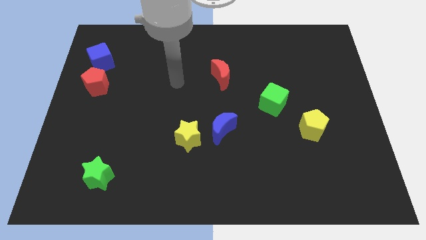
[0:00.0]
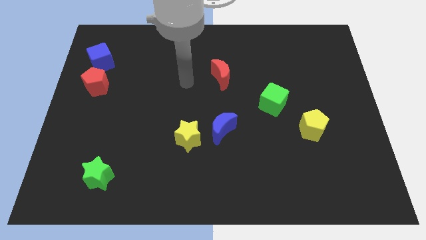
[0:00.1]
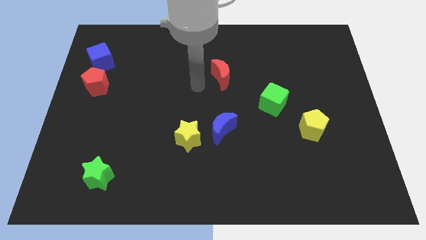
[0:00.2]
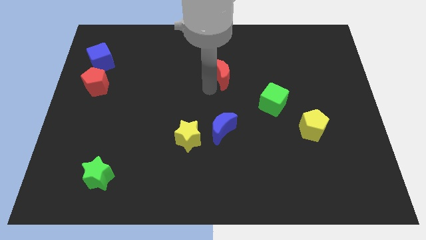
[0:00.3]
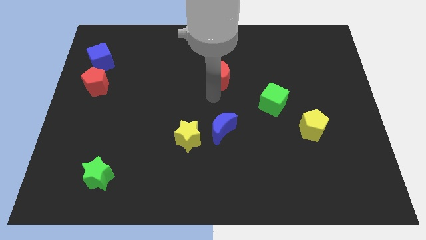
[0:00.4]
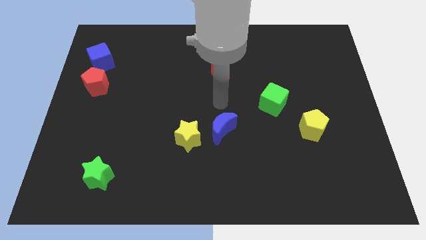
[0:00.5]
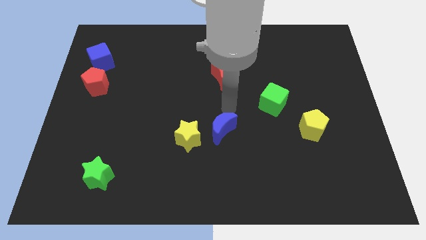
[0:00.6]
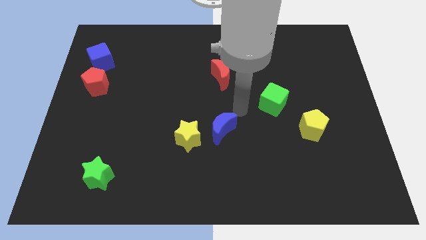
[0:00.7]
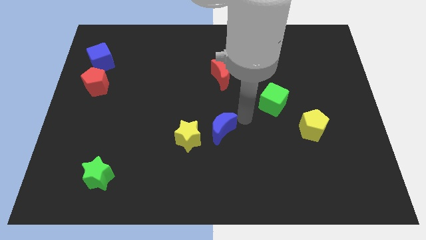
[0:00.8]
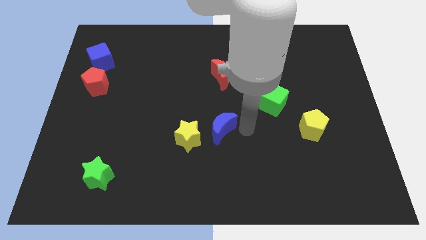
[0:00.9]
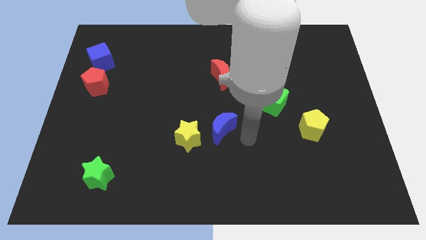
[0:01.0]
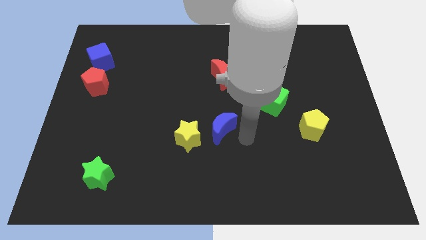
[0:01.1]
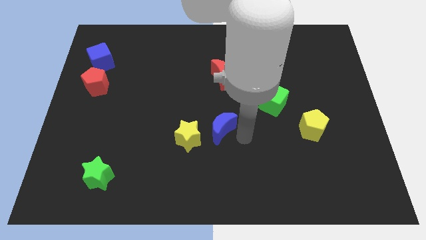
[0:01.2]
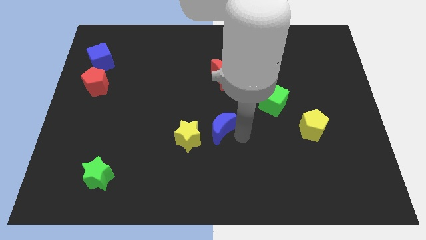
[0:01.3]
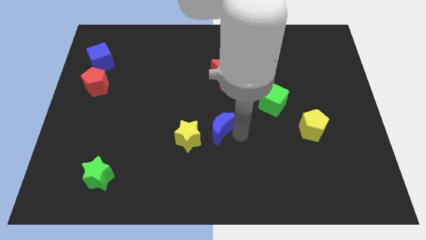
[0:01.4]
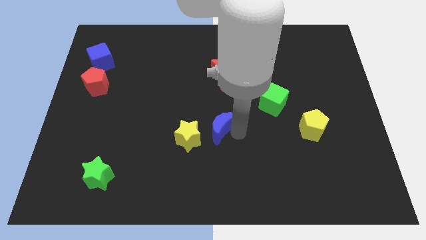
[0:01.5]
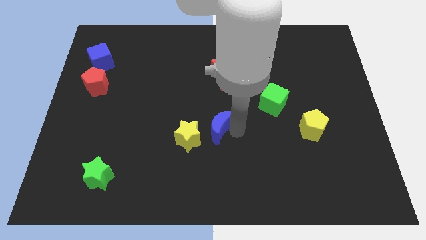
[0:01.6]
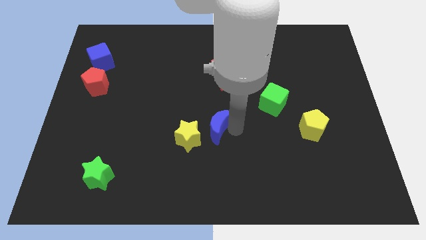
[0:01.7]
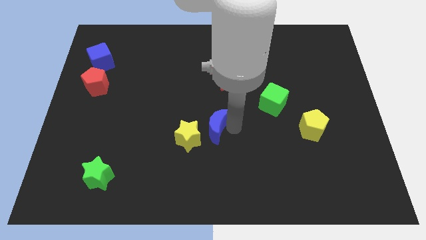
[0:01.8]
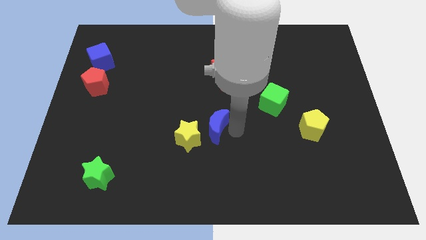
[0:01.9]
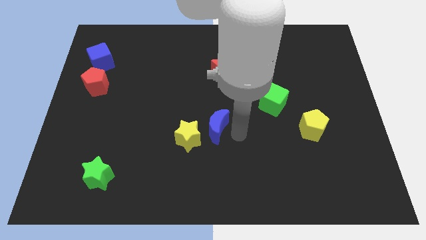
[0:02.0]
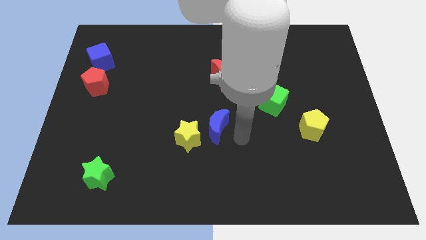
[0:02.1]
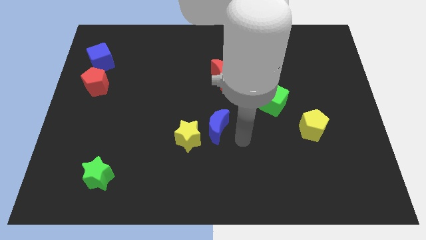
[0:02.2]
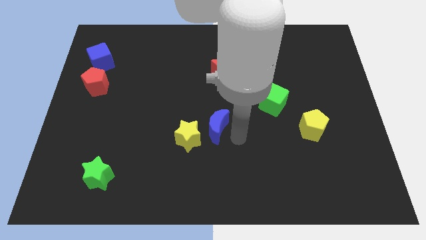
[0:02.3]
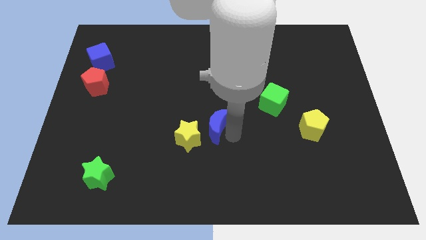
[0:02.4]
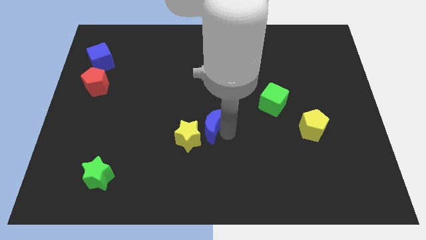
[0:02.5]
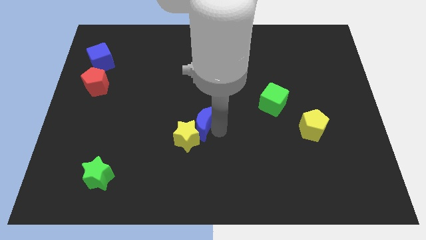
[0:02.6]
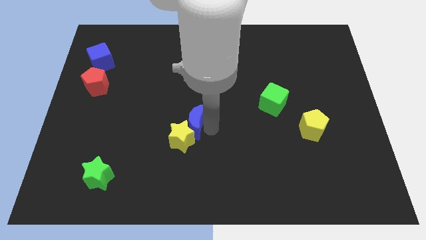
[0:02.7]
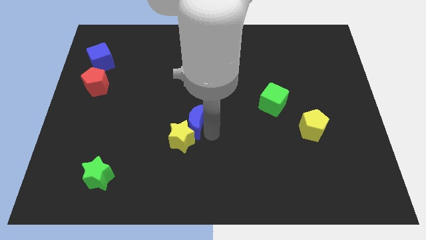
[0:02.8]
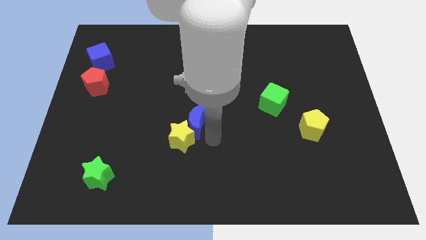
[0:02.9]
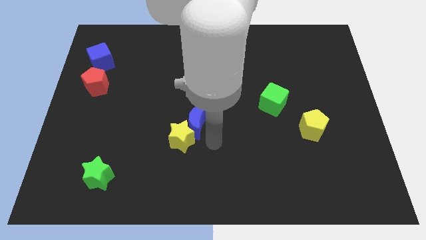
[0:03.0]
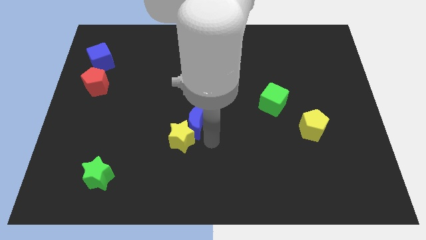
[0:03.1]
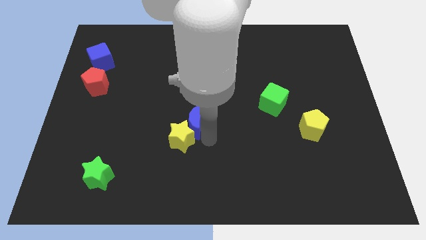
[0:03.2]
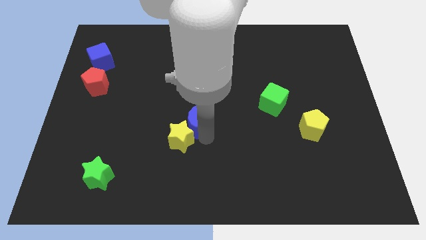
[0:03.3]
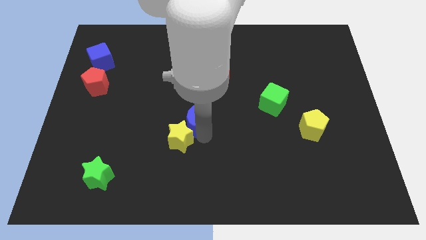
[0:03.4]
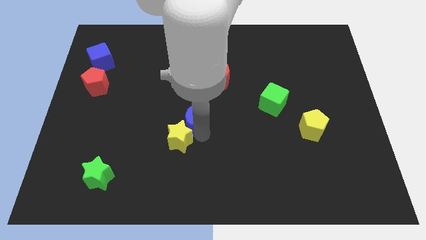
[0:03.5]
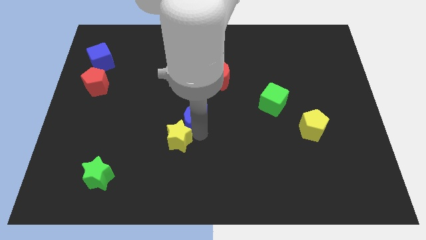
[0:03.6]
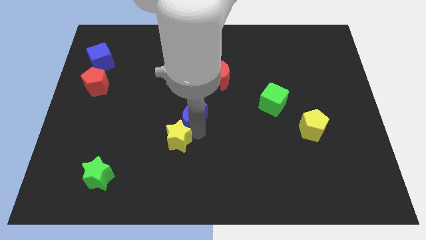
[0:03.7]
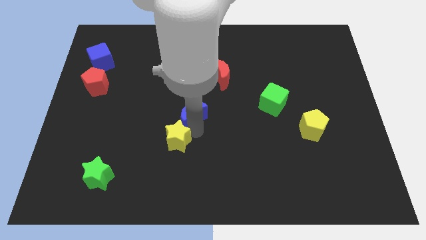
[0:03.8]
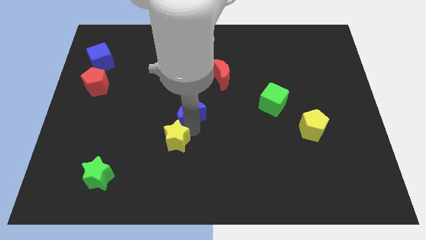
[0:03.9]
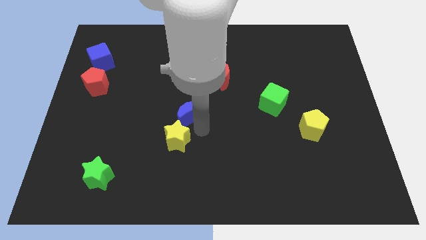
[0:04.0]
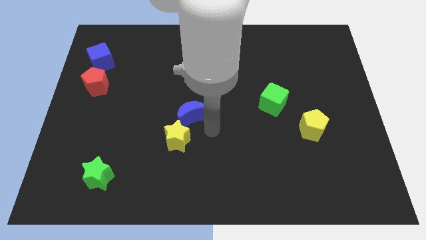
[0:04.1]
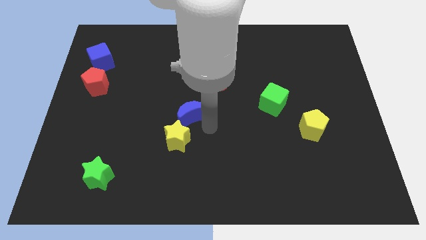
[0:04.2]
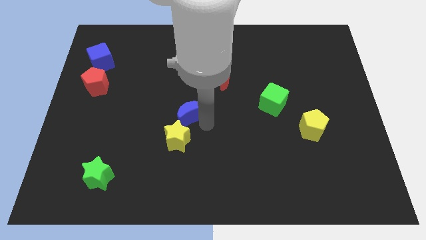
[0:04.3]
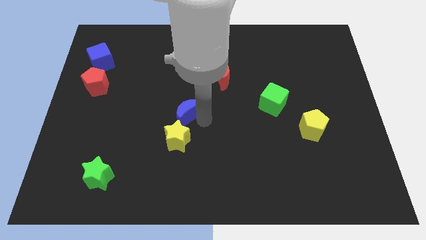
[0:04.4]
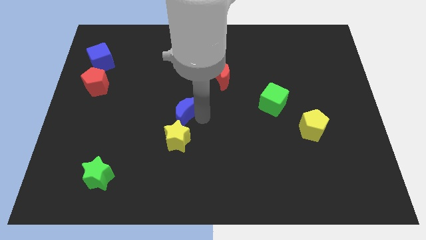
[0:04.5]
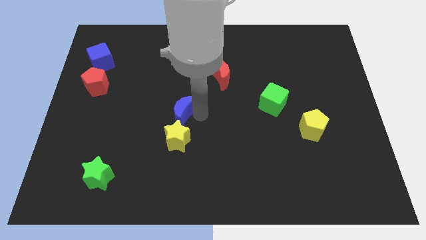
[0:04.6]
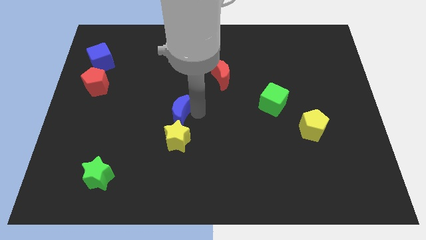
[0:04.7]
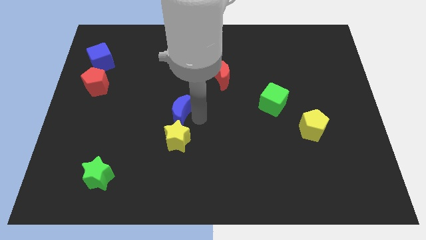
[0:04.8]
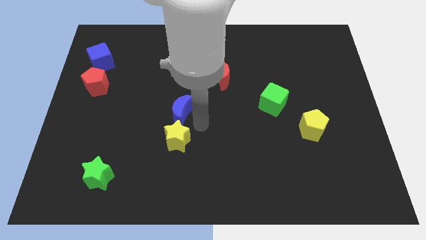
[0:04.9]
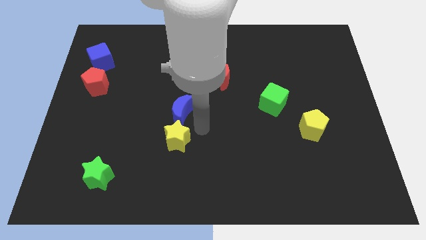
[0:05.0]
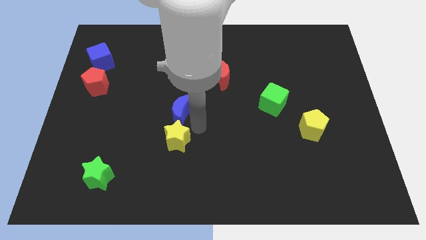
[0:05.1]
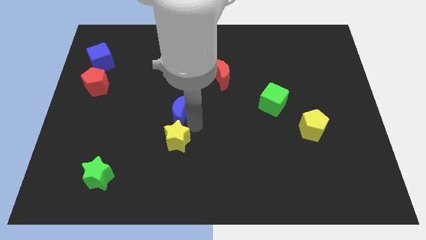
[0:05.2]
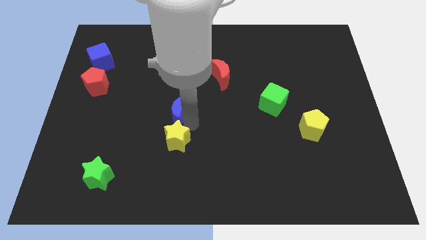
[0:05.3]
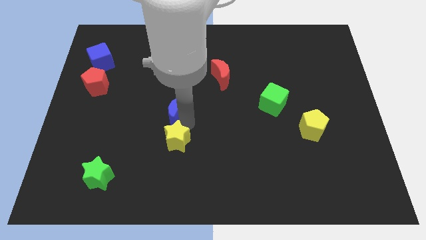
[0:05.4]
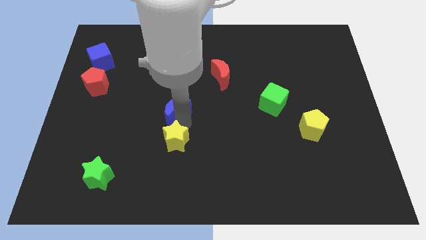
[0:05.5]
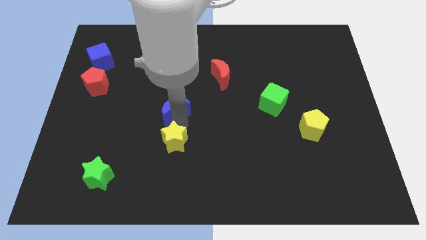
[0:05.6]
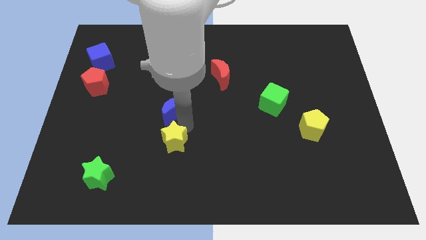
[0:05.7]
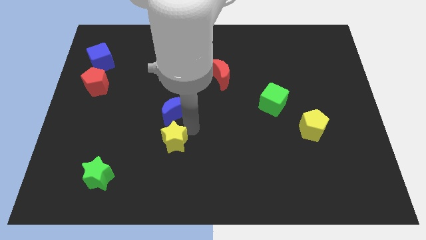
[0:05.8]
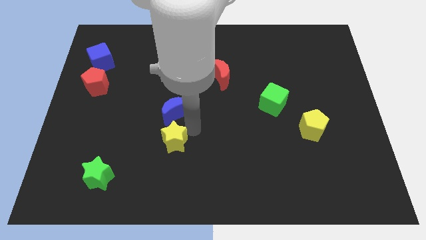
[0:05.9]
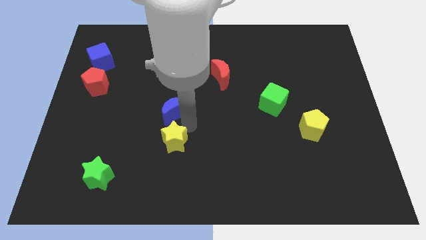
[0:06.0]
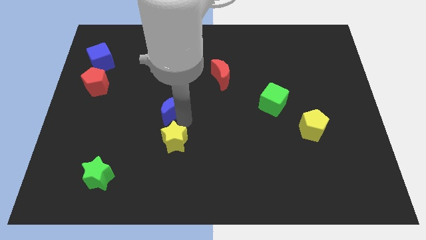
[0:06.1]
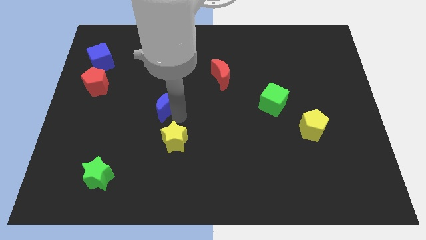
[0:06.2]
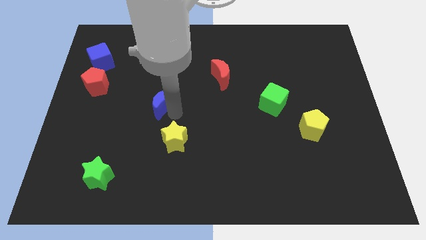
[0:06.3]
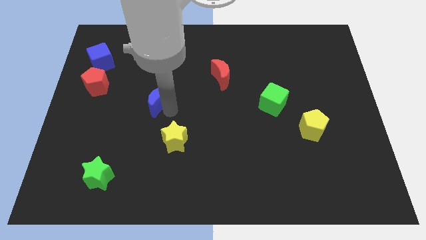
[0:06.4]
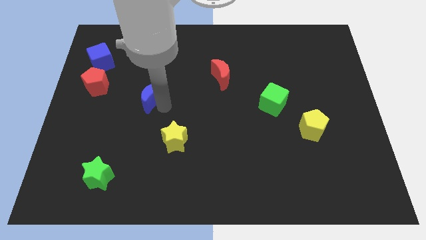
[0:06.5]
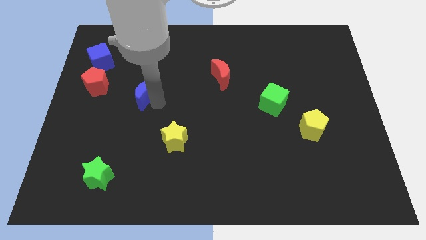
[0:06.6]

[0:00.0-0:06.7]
push the blue moon to the right of the red pentagon

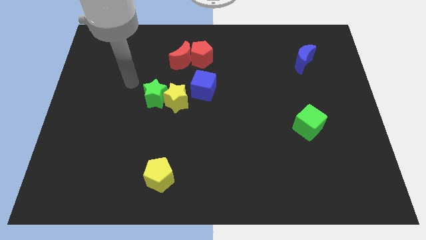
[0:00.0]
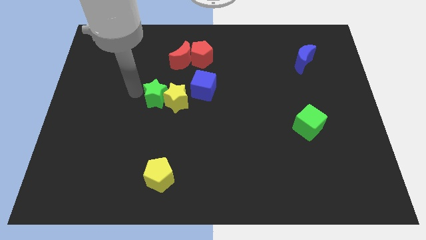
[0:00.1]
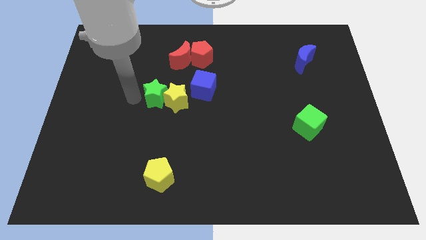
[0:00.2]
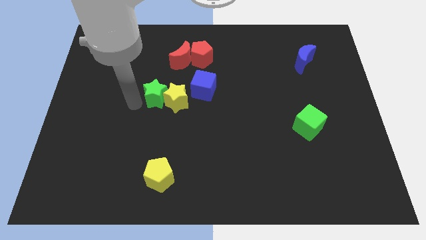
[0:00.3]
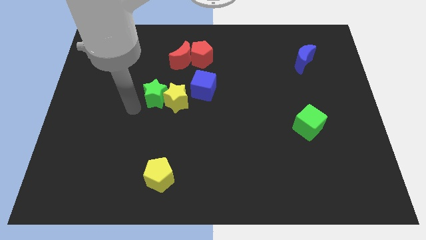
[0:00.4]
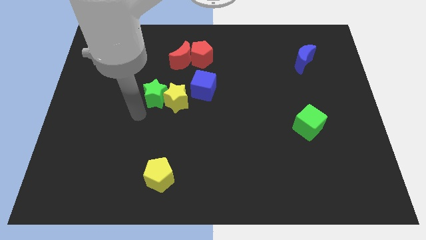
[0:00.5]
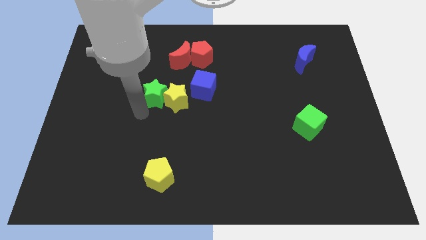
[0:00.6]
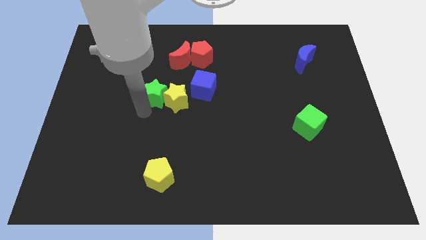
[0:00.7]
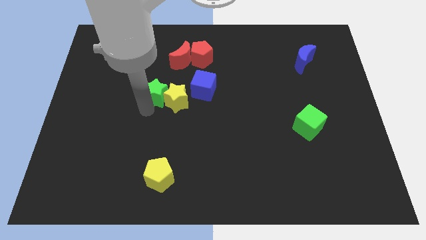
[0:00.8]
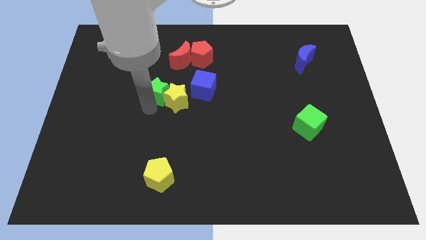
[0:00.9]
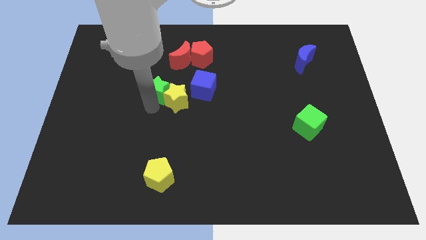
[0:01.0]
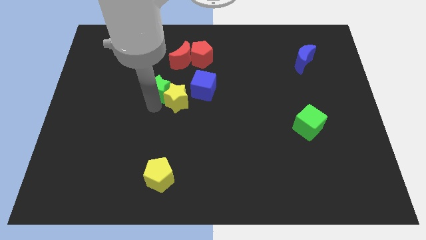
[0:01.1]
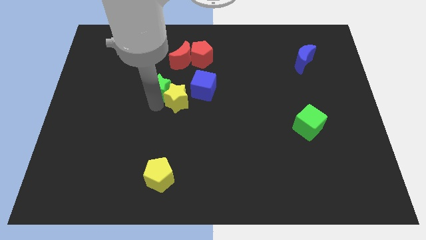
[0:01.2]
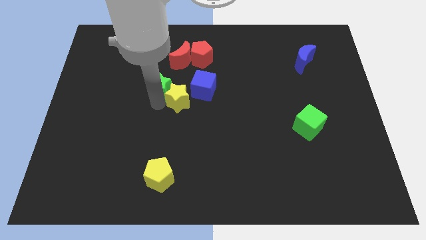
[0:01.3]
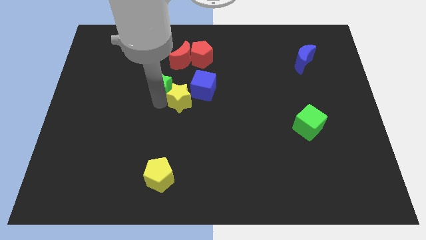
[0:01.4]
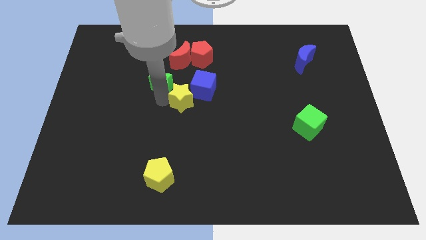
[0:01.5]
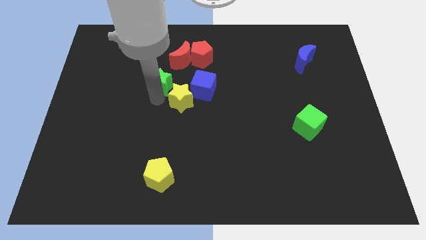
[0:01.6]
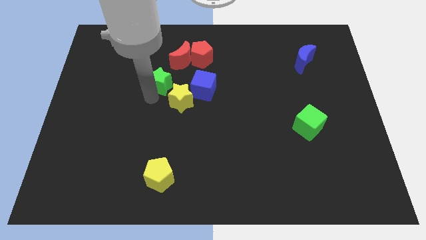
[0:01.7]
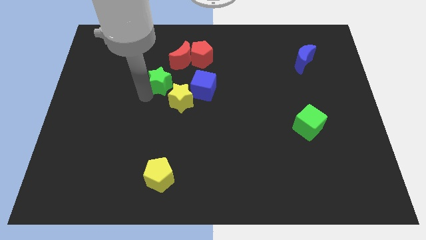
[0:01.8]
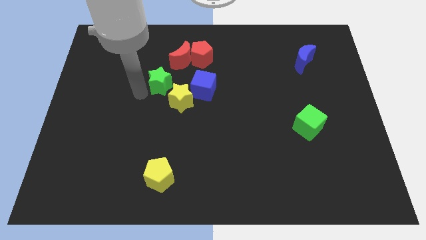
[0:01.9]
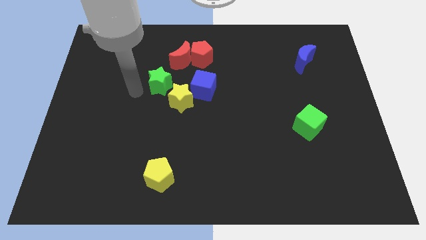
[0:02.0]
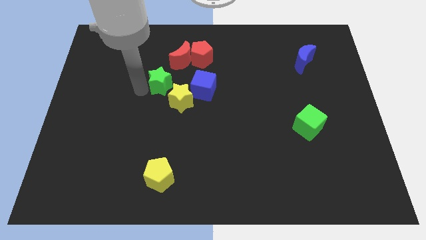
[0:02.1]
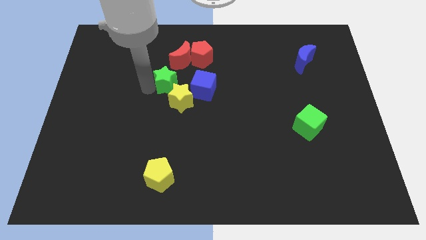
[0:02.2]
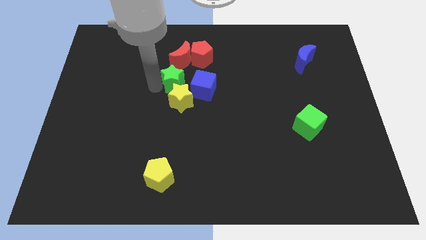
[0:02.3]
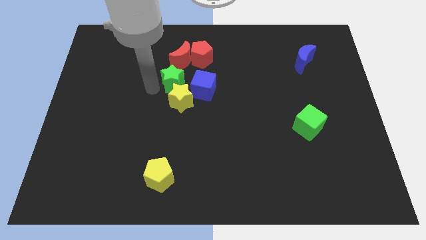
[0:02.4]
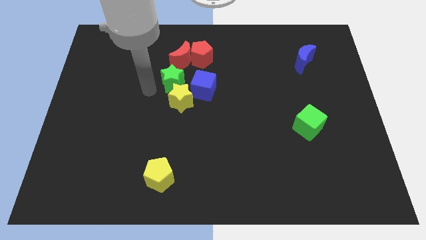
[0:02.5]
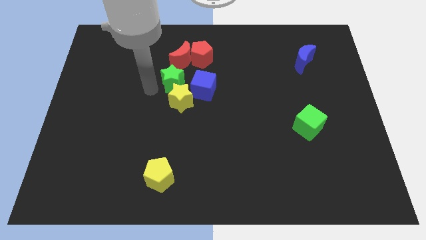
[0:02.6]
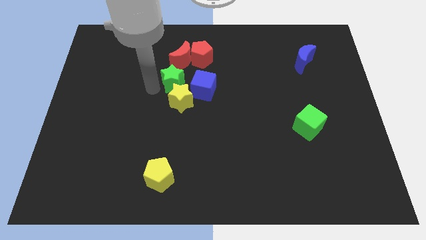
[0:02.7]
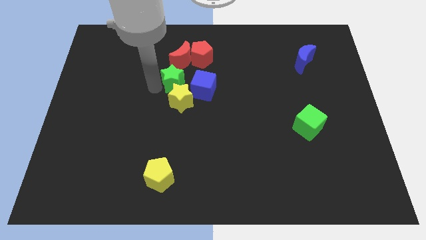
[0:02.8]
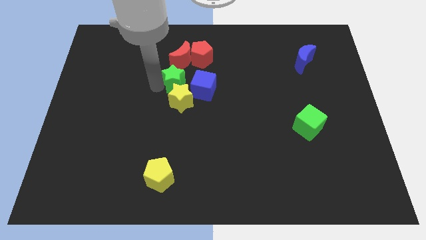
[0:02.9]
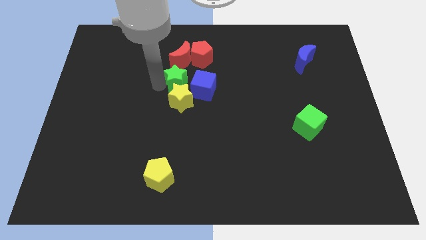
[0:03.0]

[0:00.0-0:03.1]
slide the green star diagonally up and to the right of the yellow star
